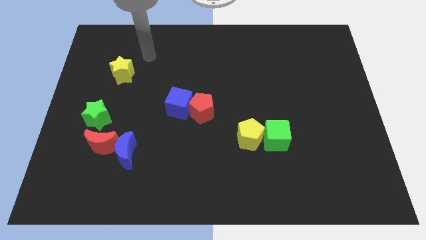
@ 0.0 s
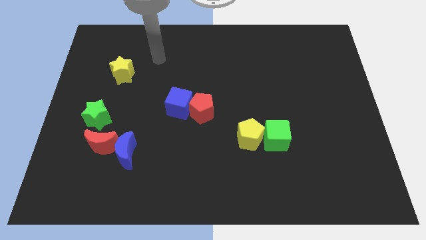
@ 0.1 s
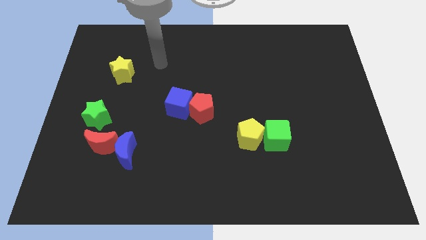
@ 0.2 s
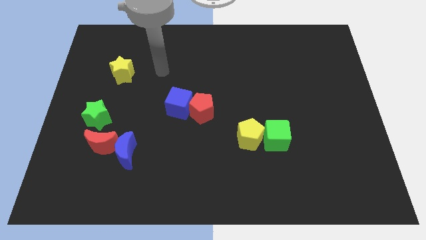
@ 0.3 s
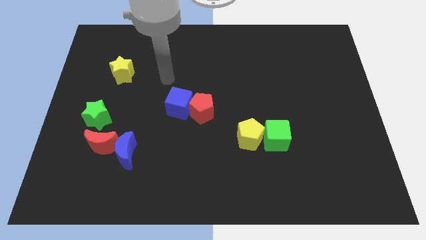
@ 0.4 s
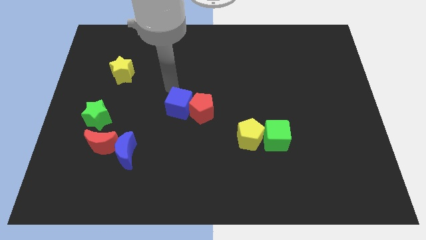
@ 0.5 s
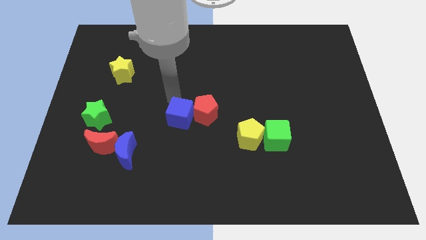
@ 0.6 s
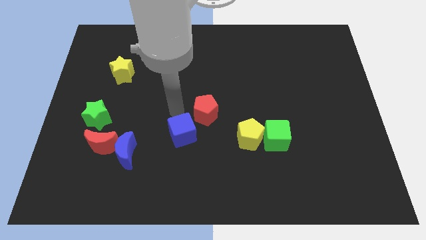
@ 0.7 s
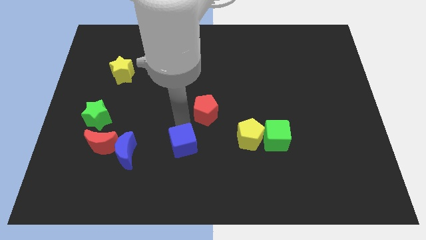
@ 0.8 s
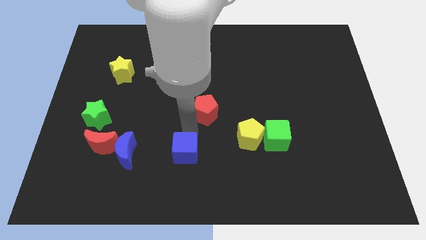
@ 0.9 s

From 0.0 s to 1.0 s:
move the red pentagon away from the blue cube

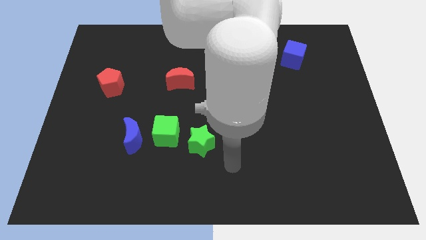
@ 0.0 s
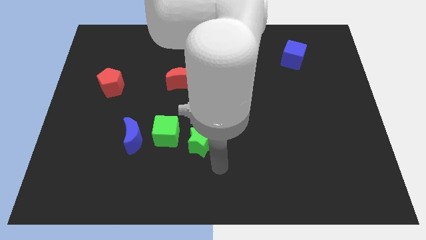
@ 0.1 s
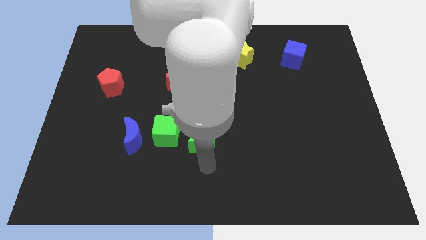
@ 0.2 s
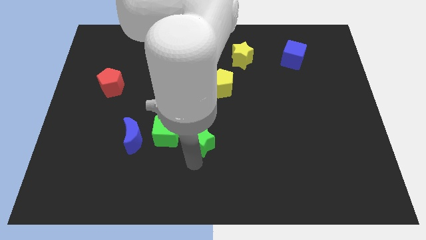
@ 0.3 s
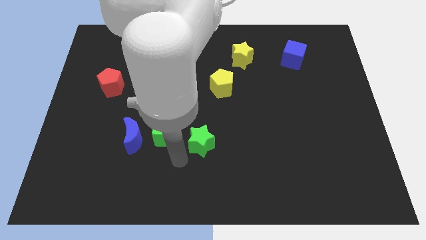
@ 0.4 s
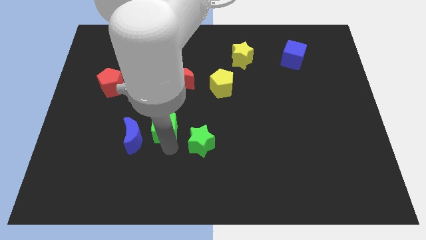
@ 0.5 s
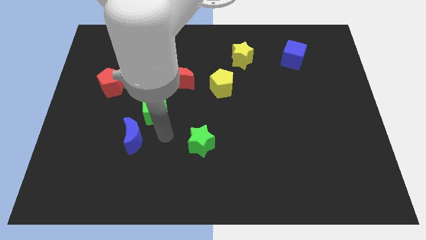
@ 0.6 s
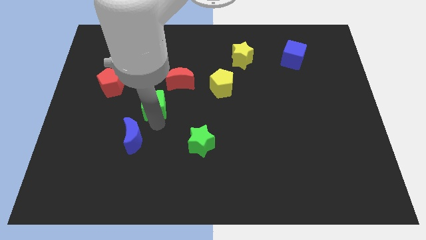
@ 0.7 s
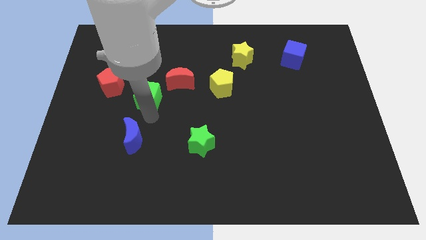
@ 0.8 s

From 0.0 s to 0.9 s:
move the blue moon away from the green cube

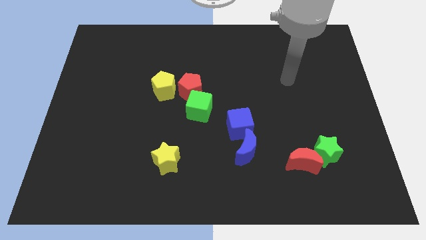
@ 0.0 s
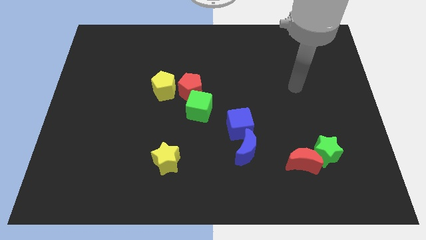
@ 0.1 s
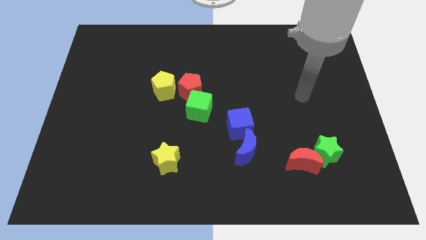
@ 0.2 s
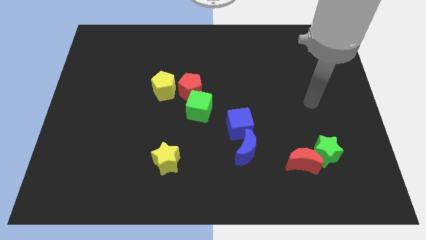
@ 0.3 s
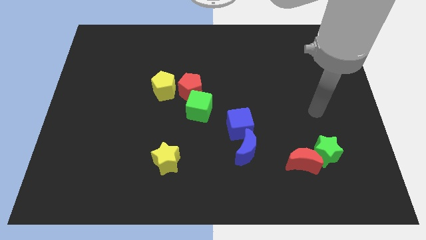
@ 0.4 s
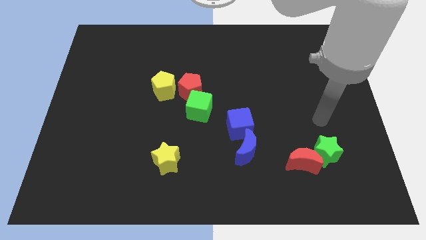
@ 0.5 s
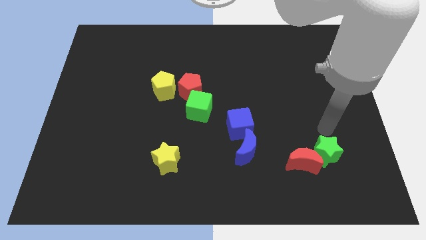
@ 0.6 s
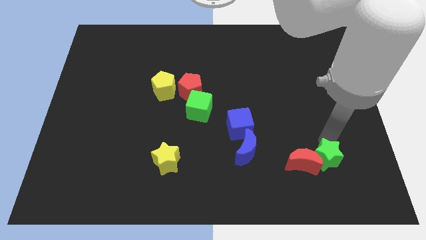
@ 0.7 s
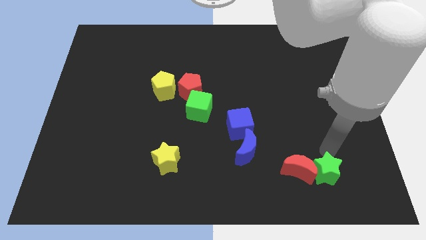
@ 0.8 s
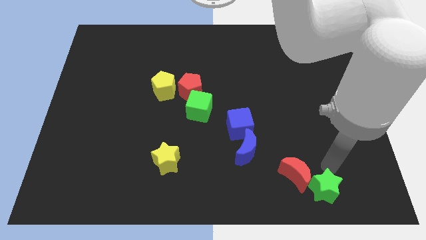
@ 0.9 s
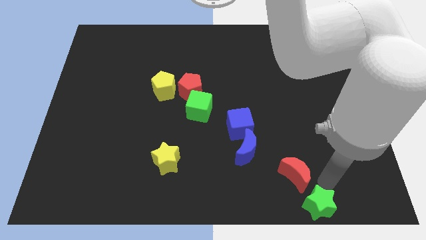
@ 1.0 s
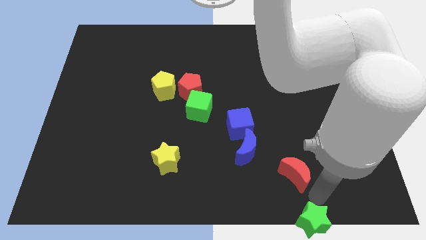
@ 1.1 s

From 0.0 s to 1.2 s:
pull the red moon apart from the green star

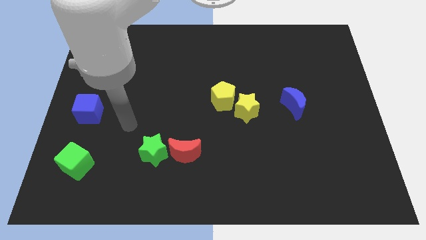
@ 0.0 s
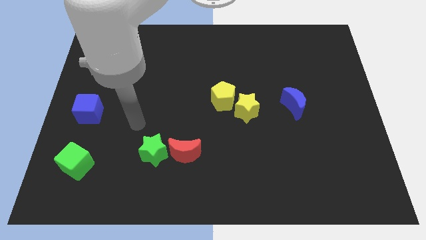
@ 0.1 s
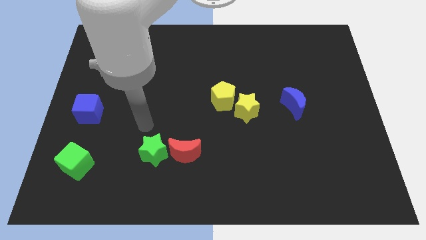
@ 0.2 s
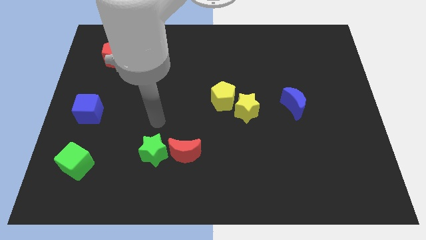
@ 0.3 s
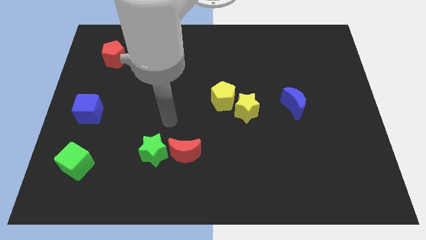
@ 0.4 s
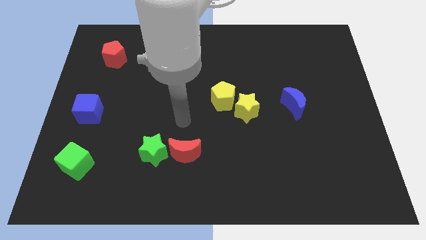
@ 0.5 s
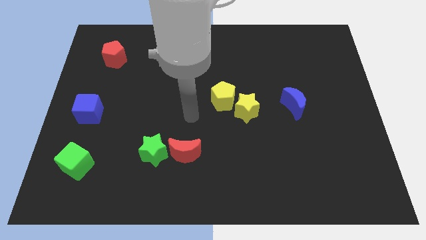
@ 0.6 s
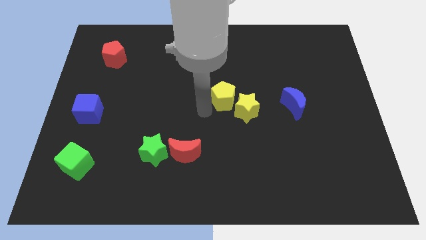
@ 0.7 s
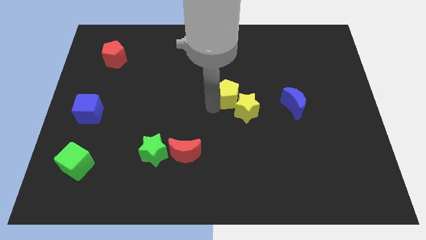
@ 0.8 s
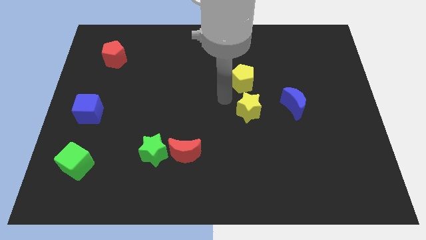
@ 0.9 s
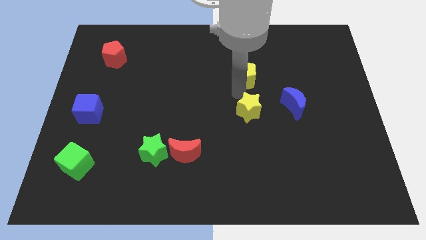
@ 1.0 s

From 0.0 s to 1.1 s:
separate the yellow star from the yellow pentagon

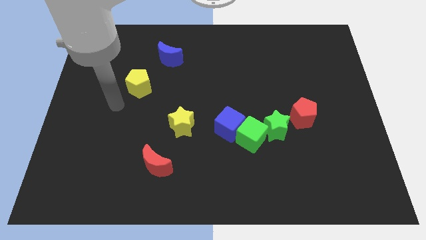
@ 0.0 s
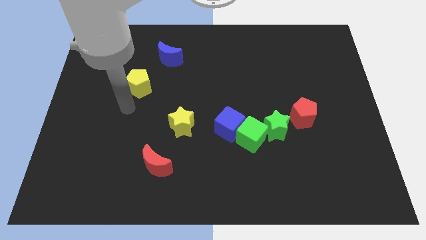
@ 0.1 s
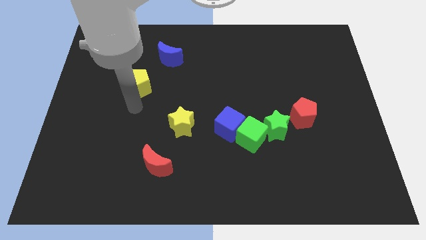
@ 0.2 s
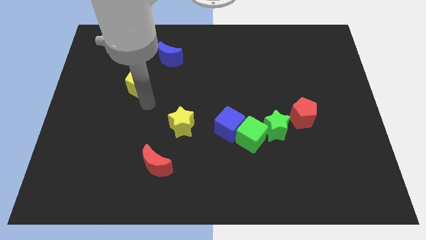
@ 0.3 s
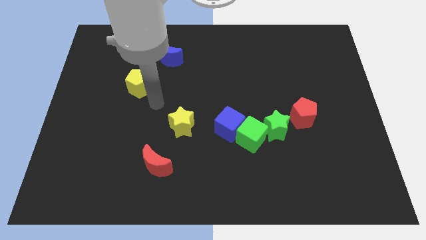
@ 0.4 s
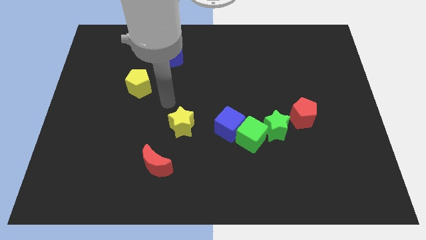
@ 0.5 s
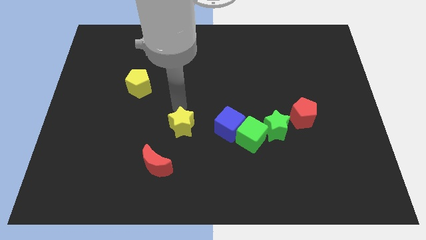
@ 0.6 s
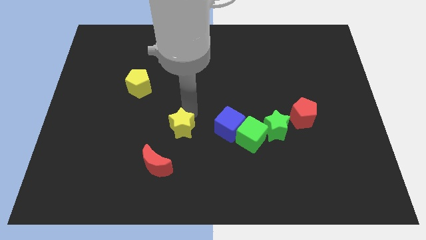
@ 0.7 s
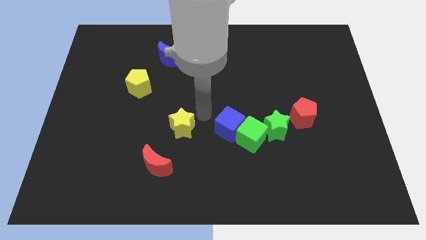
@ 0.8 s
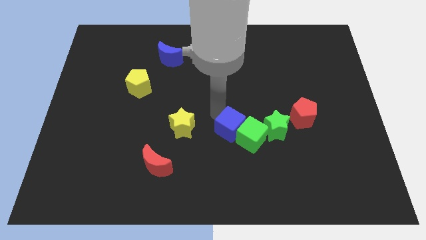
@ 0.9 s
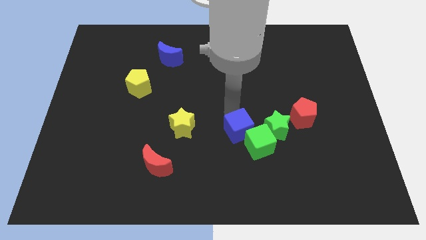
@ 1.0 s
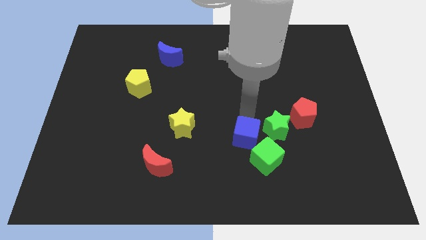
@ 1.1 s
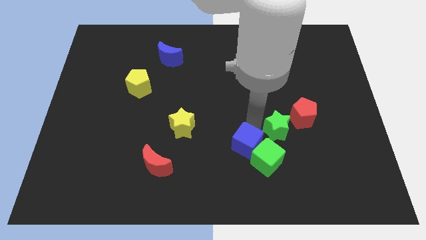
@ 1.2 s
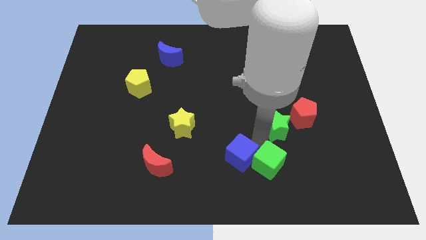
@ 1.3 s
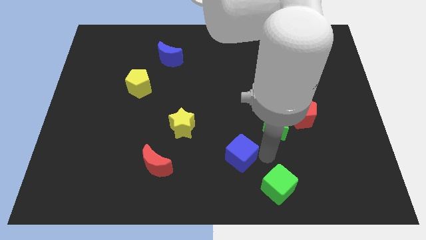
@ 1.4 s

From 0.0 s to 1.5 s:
pull the blue cube apart from the green cube

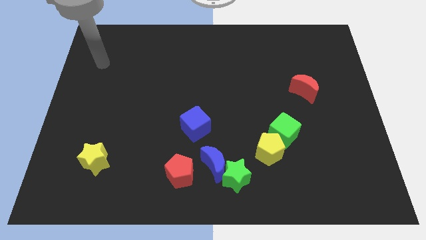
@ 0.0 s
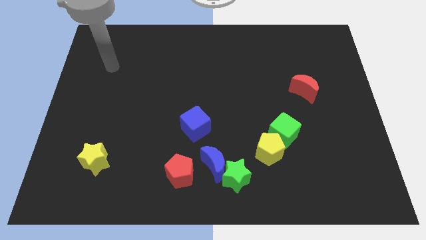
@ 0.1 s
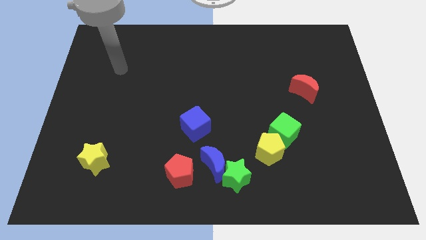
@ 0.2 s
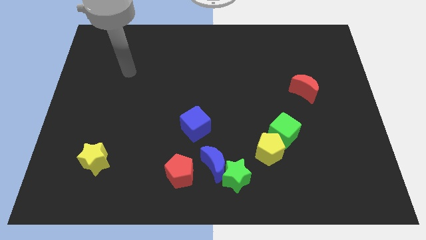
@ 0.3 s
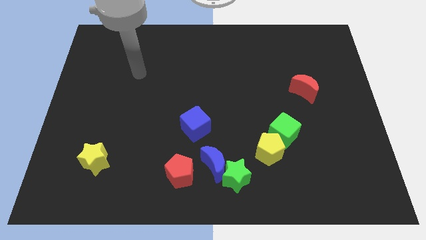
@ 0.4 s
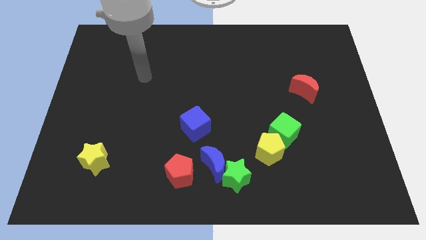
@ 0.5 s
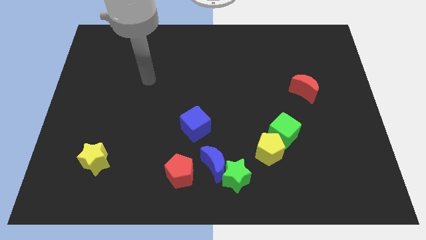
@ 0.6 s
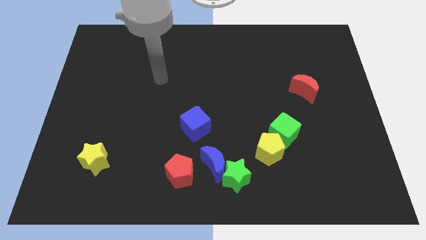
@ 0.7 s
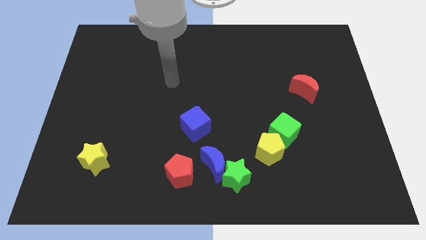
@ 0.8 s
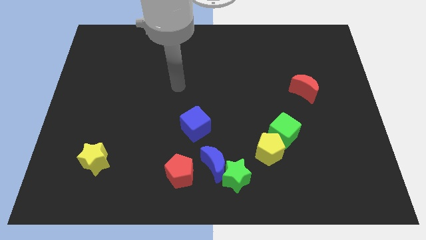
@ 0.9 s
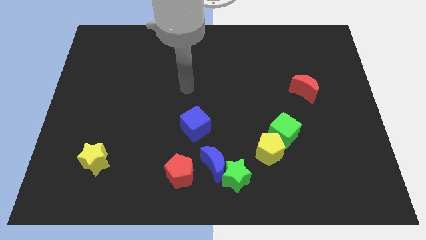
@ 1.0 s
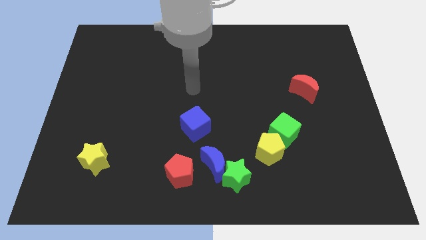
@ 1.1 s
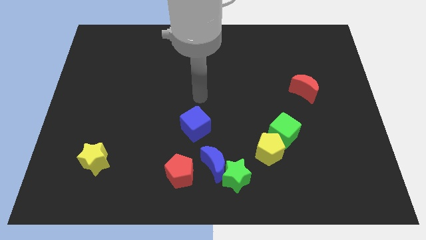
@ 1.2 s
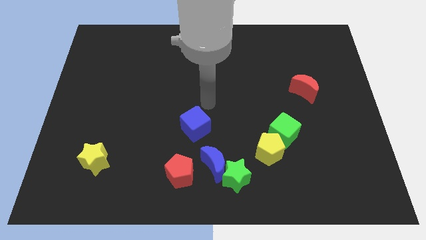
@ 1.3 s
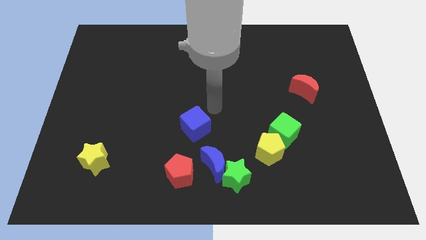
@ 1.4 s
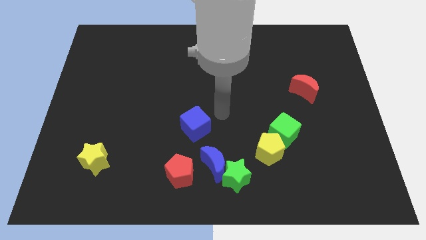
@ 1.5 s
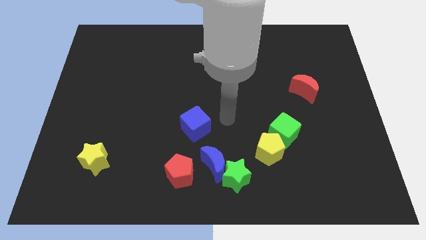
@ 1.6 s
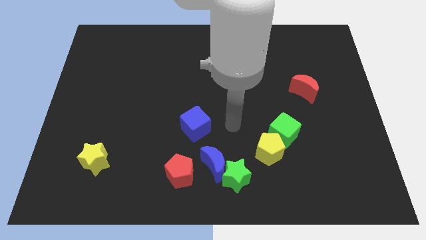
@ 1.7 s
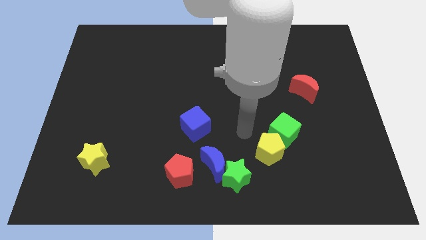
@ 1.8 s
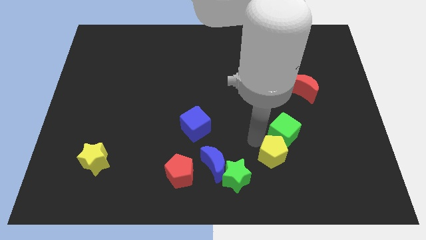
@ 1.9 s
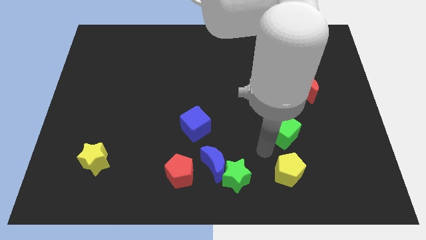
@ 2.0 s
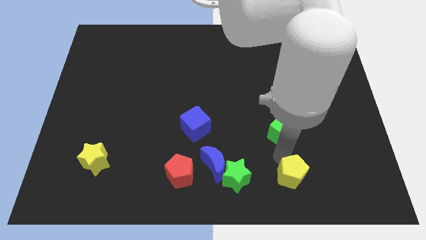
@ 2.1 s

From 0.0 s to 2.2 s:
pull the green cube apart from the yellow pentagon

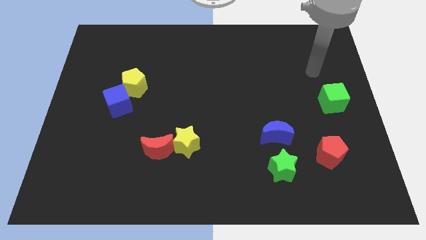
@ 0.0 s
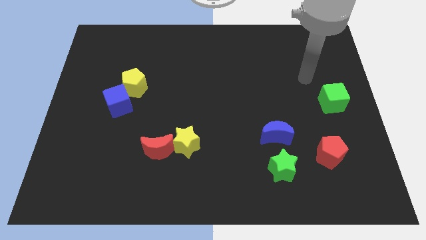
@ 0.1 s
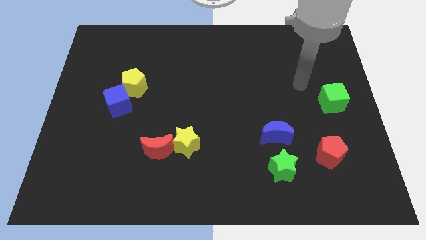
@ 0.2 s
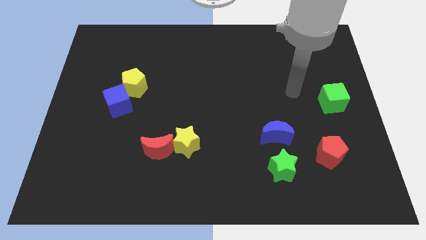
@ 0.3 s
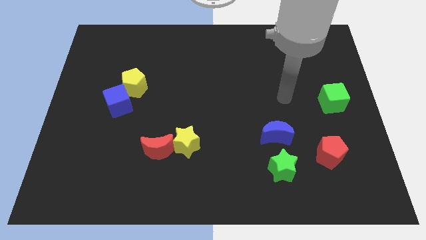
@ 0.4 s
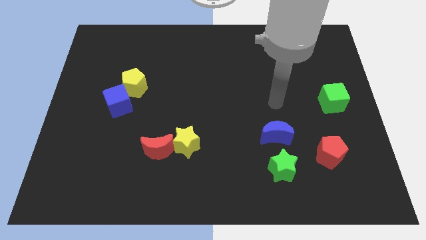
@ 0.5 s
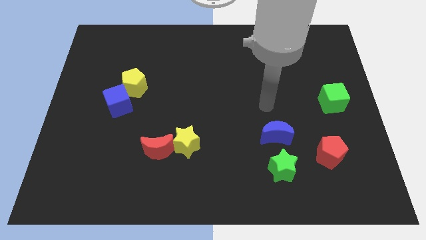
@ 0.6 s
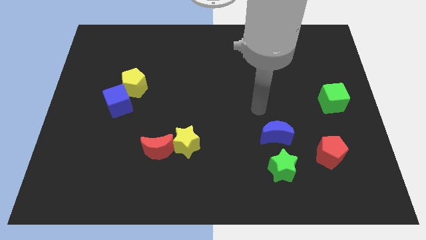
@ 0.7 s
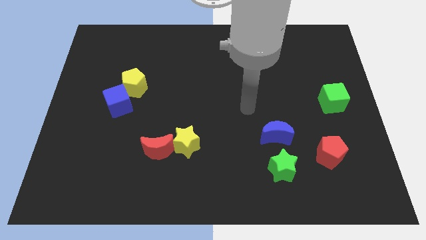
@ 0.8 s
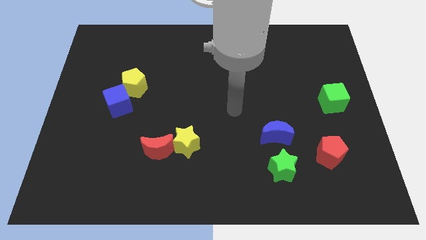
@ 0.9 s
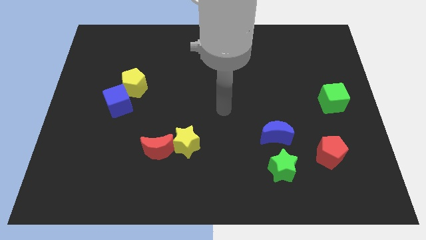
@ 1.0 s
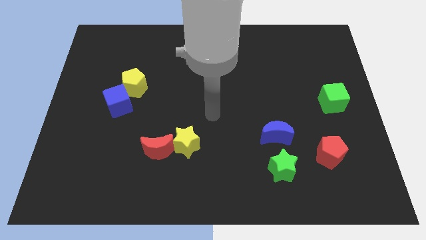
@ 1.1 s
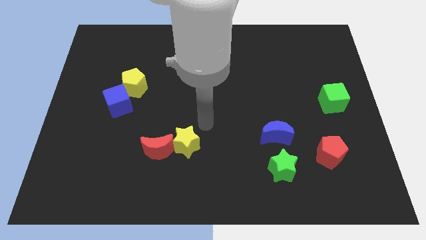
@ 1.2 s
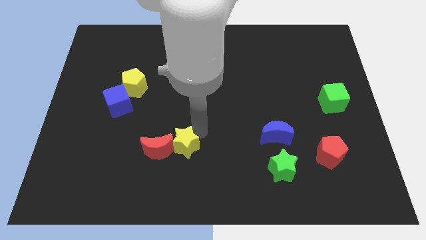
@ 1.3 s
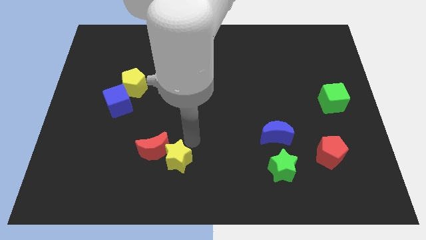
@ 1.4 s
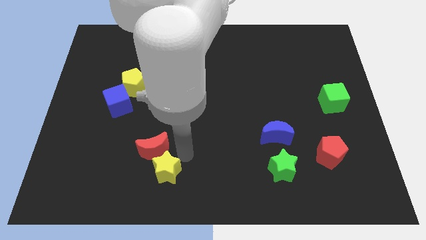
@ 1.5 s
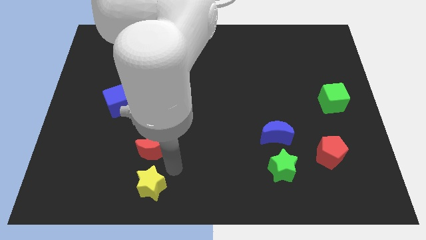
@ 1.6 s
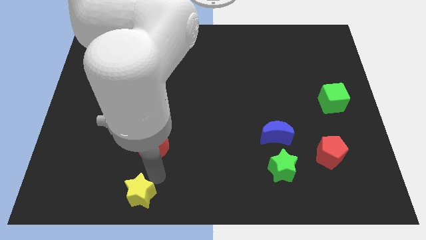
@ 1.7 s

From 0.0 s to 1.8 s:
pull the red moon apart from the yellow star
